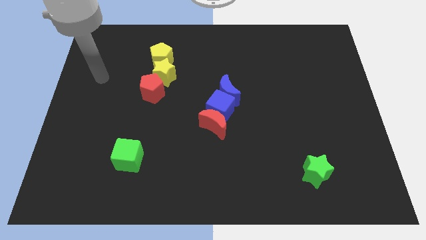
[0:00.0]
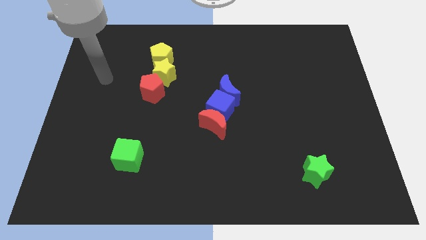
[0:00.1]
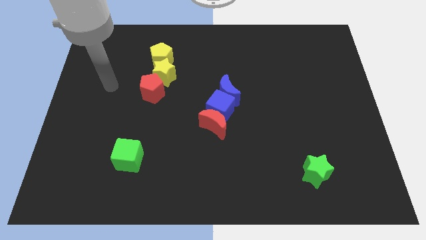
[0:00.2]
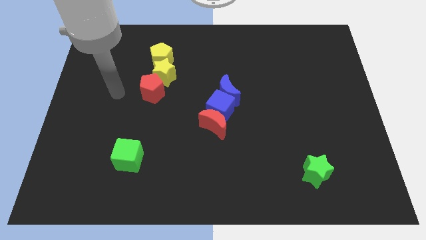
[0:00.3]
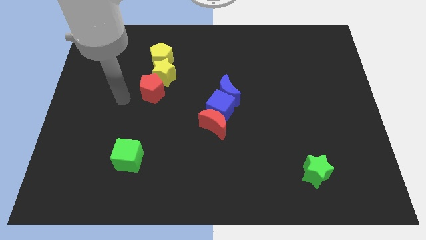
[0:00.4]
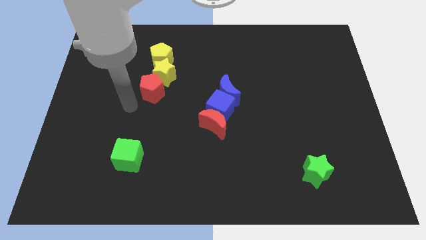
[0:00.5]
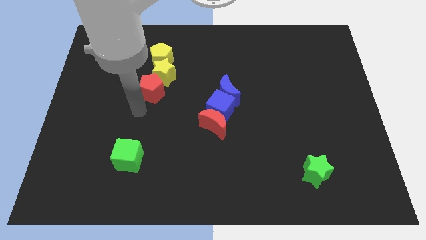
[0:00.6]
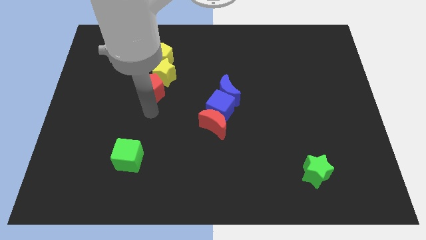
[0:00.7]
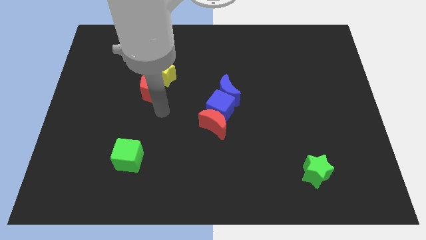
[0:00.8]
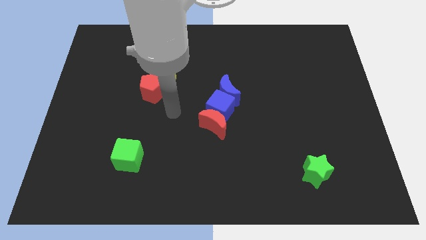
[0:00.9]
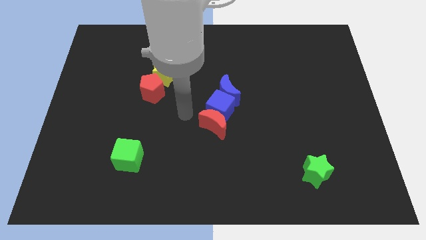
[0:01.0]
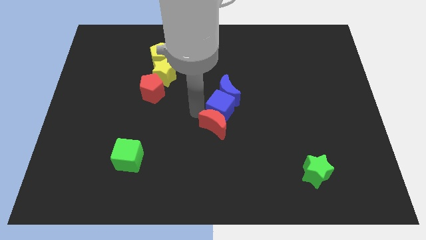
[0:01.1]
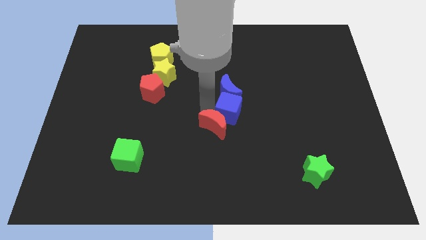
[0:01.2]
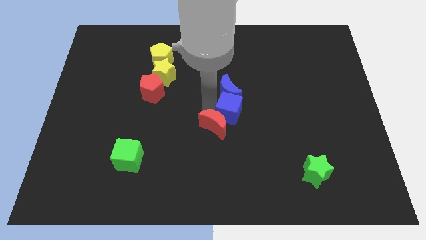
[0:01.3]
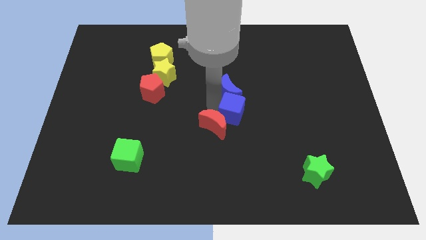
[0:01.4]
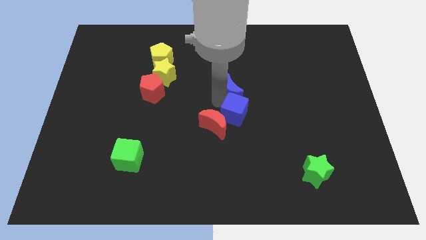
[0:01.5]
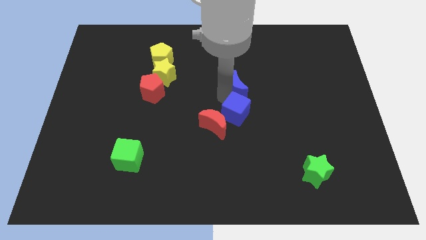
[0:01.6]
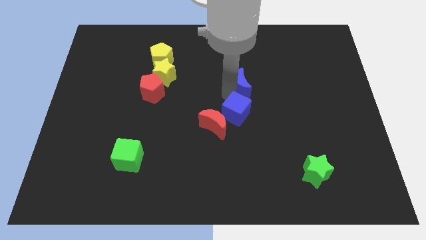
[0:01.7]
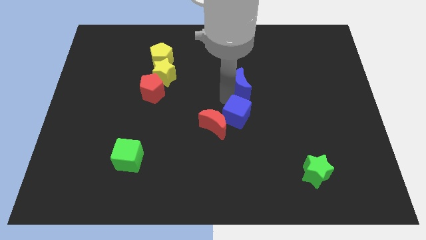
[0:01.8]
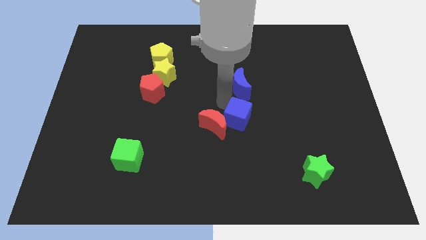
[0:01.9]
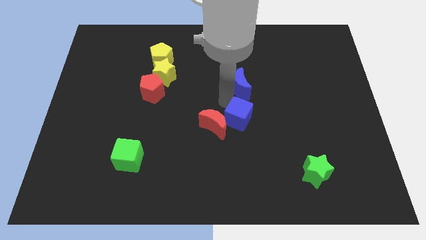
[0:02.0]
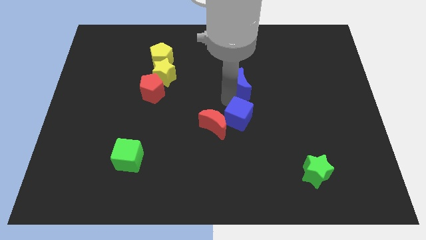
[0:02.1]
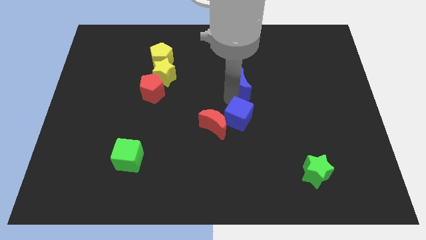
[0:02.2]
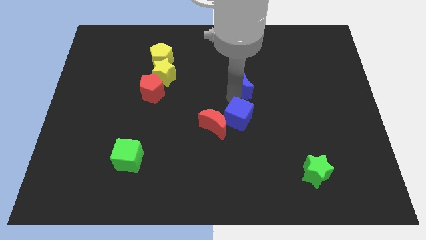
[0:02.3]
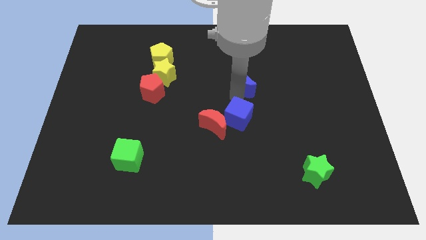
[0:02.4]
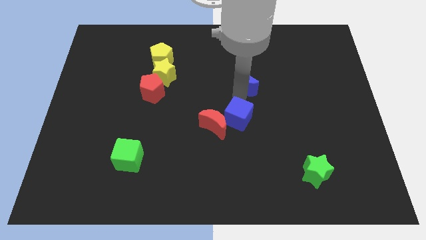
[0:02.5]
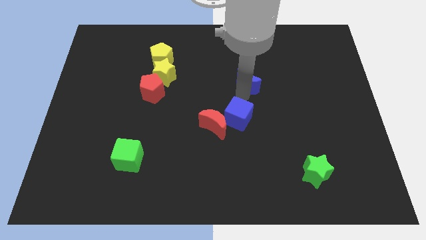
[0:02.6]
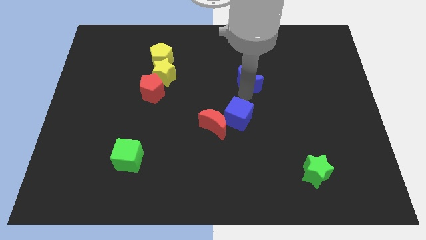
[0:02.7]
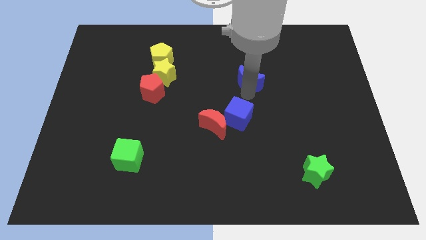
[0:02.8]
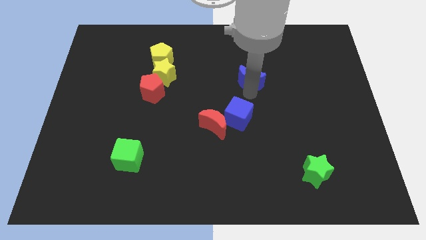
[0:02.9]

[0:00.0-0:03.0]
move the blue moon upwards and then right a bit

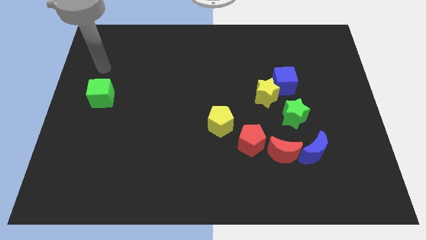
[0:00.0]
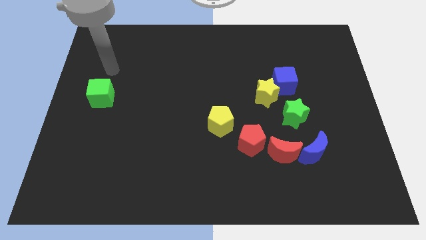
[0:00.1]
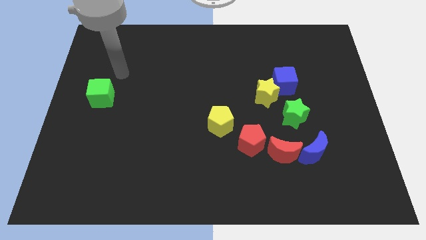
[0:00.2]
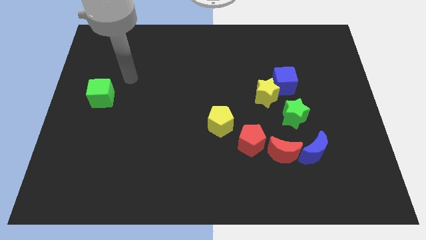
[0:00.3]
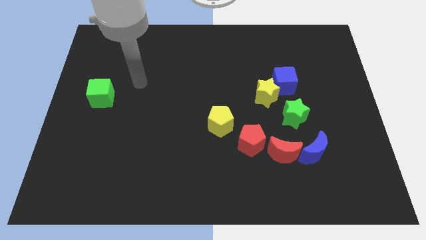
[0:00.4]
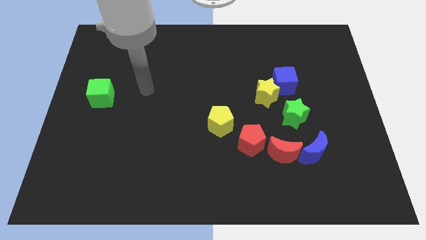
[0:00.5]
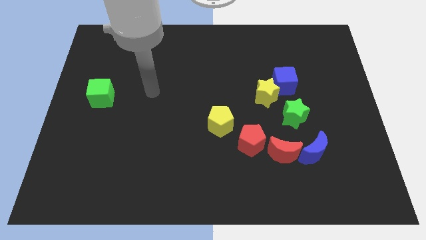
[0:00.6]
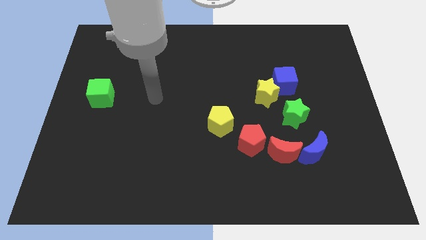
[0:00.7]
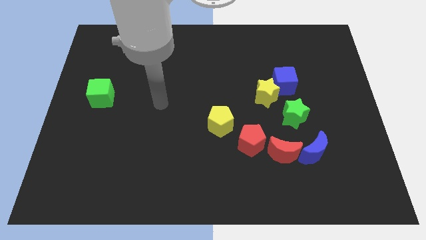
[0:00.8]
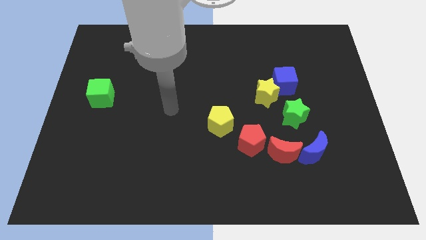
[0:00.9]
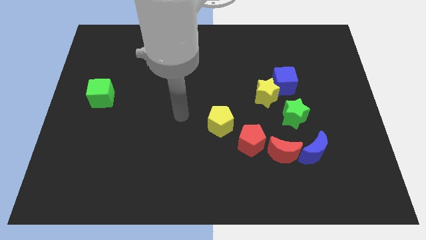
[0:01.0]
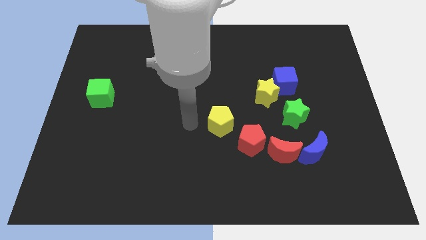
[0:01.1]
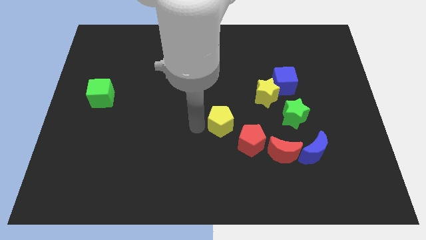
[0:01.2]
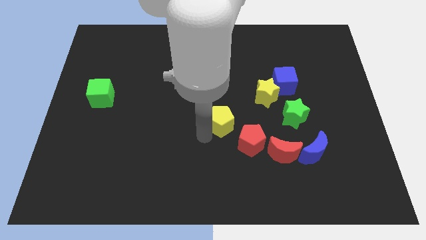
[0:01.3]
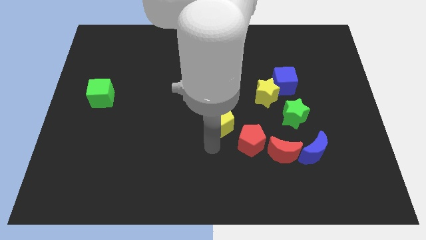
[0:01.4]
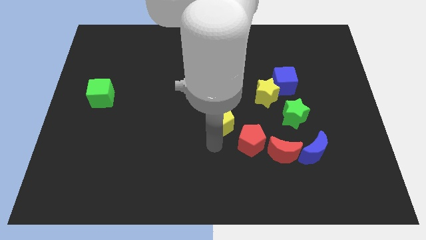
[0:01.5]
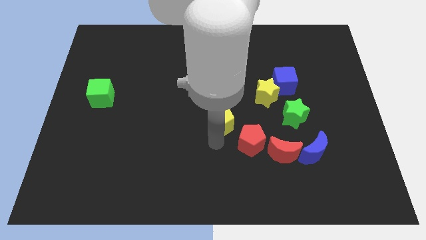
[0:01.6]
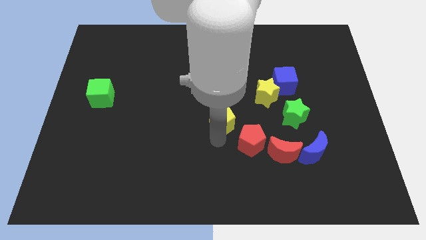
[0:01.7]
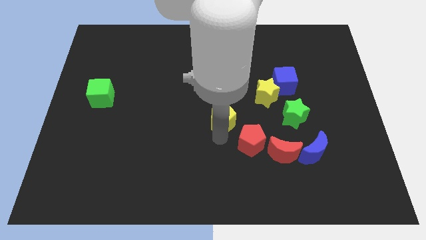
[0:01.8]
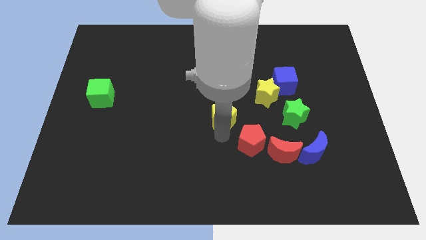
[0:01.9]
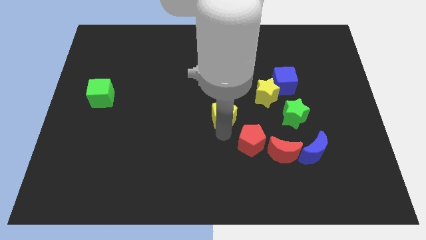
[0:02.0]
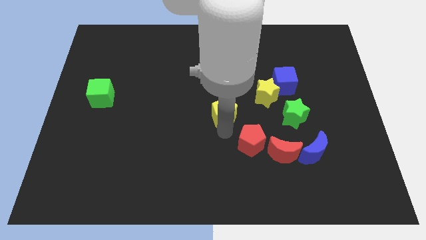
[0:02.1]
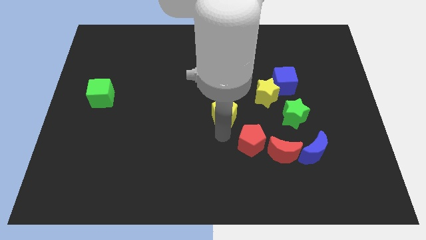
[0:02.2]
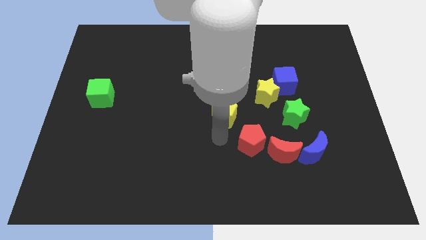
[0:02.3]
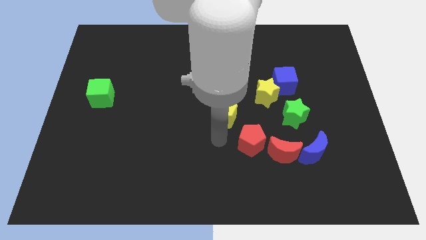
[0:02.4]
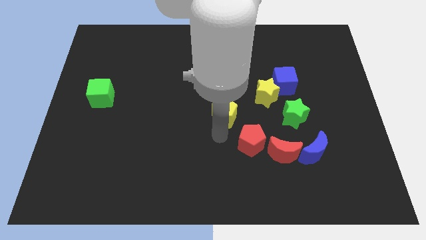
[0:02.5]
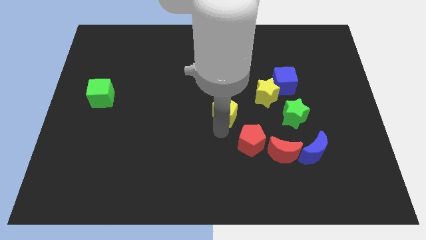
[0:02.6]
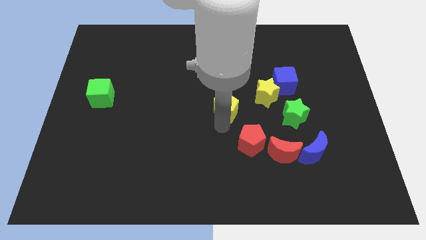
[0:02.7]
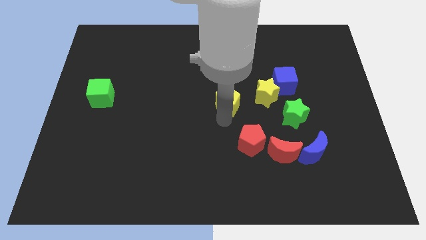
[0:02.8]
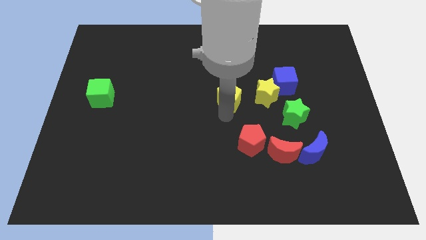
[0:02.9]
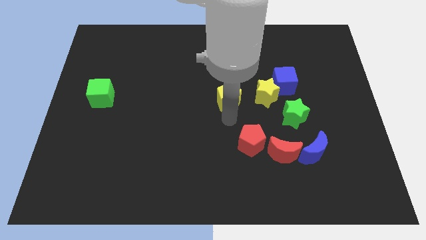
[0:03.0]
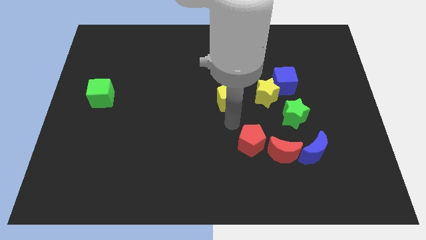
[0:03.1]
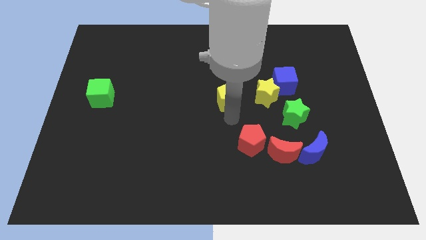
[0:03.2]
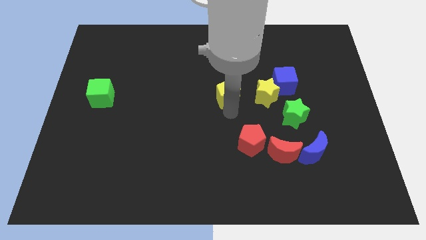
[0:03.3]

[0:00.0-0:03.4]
slightly slide the yellow pentagon upwards

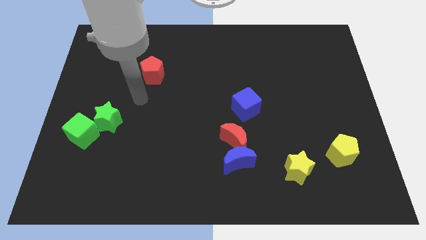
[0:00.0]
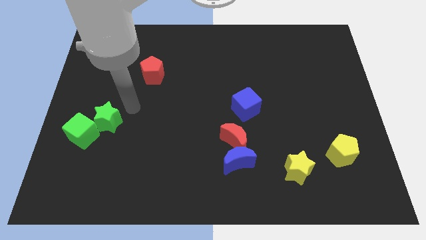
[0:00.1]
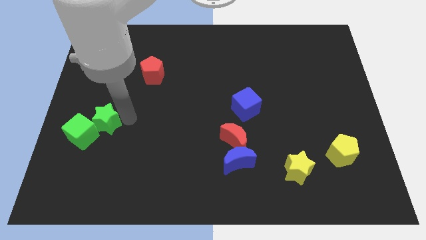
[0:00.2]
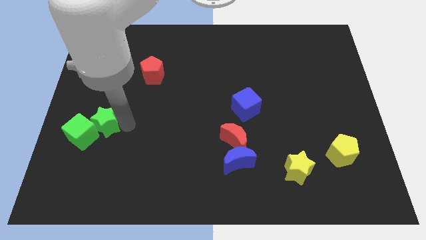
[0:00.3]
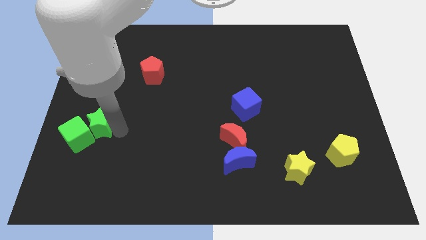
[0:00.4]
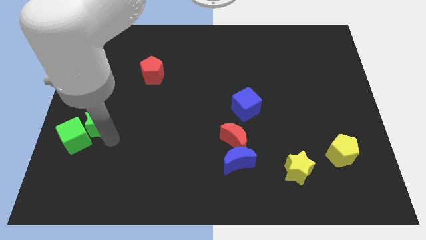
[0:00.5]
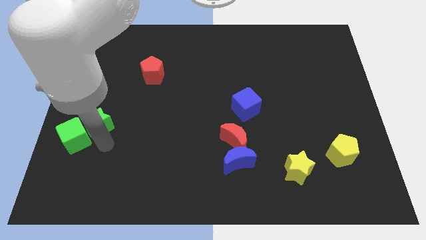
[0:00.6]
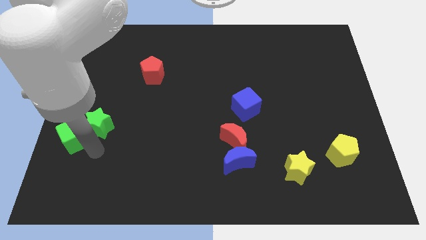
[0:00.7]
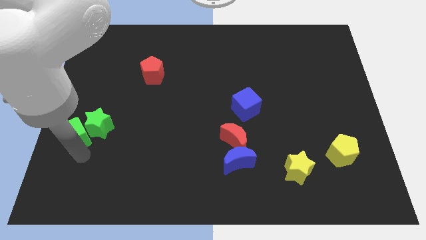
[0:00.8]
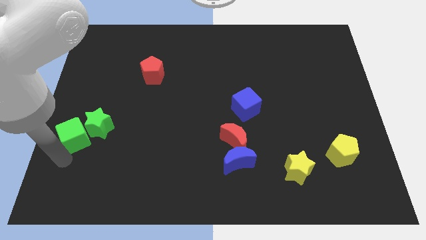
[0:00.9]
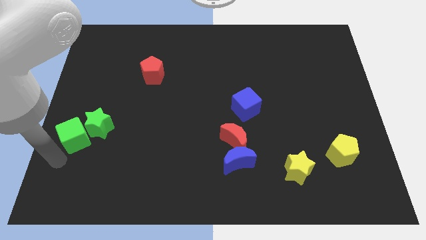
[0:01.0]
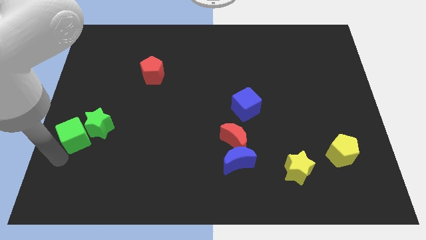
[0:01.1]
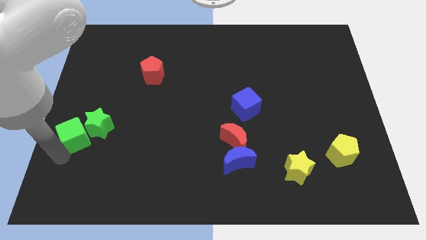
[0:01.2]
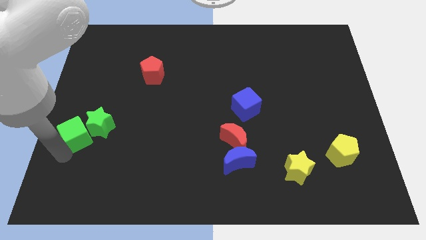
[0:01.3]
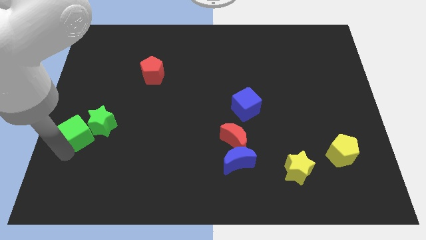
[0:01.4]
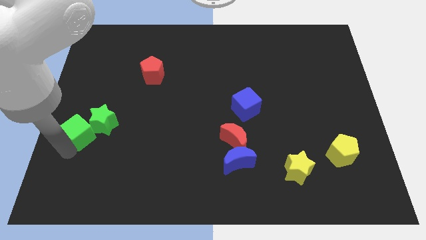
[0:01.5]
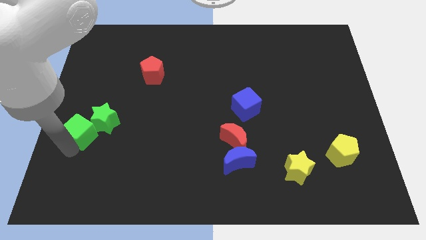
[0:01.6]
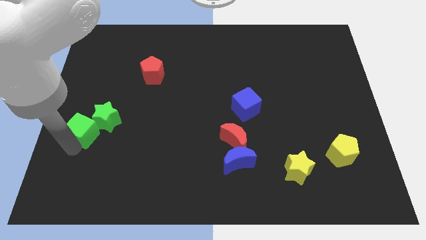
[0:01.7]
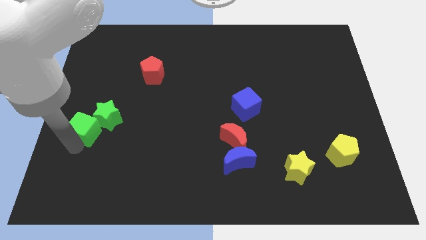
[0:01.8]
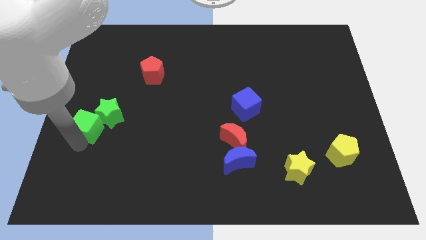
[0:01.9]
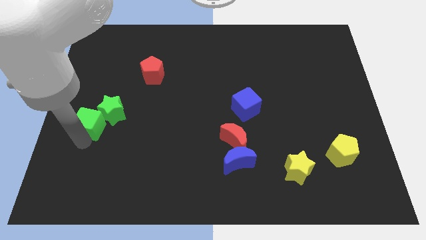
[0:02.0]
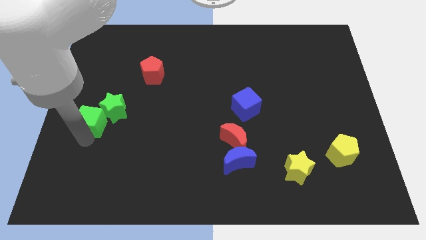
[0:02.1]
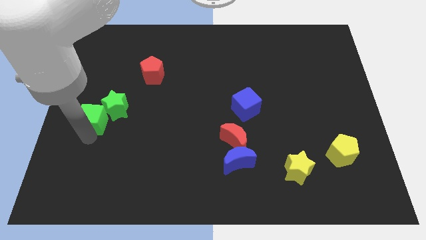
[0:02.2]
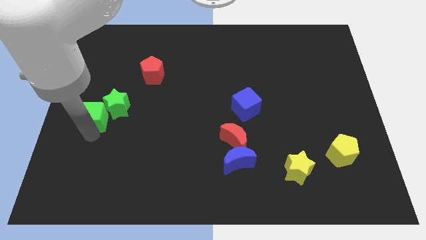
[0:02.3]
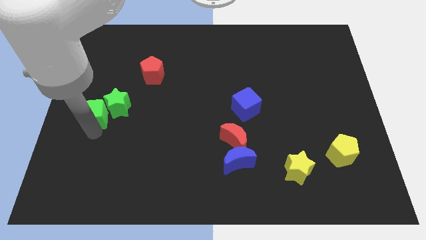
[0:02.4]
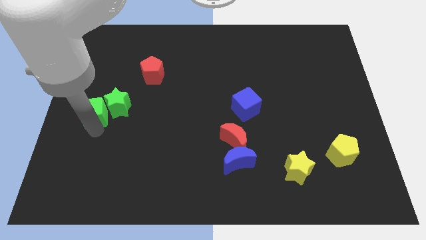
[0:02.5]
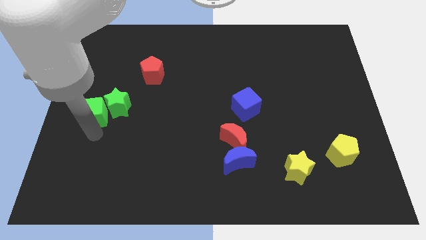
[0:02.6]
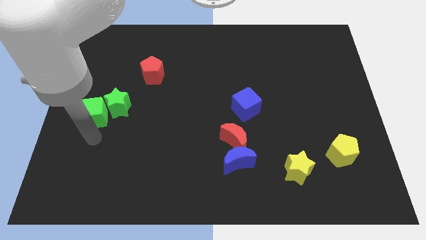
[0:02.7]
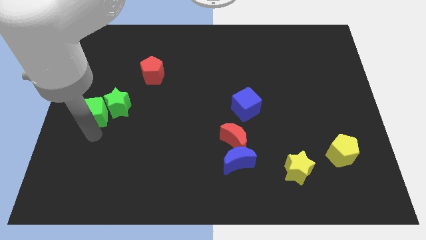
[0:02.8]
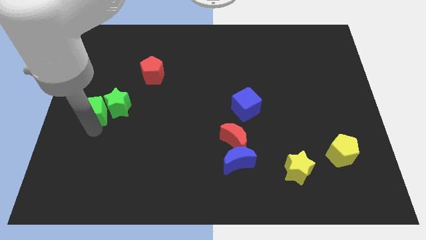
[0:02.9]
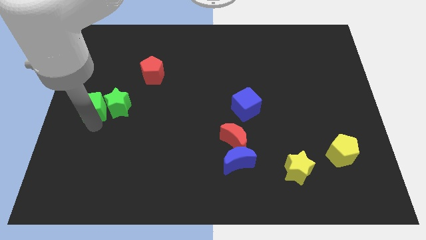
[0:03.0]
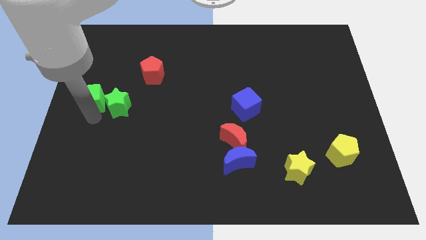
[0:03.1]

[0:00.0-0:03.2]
slide the green cube a bit up
